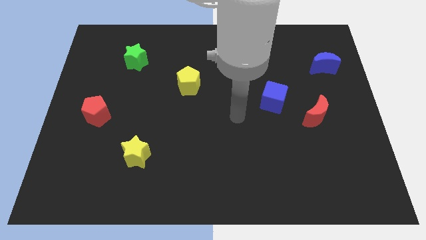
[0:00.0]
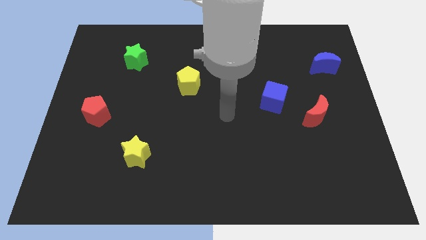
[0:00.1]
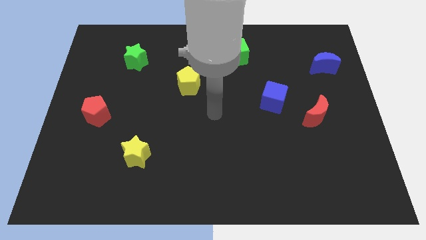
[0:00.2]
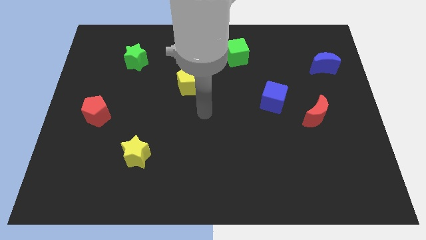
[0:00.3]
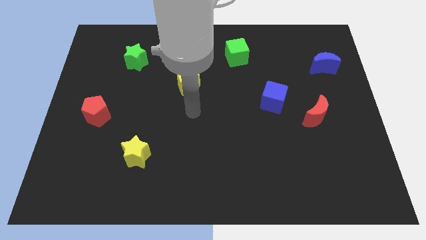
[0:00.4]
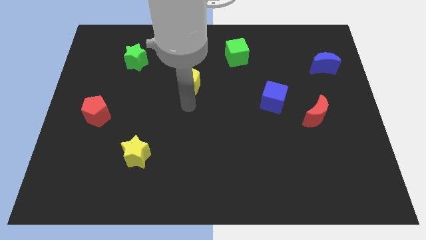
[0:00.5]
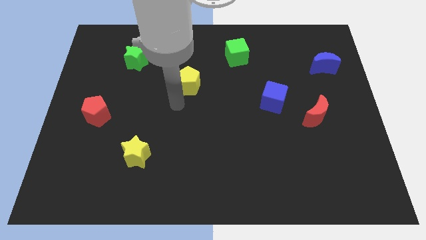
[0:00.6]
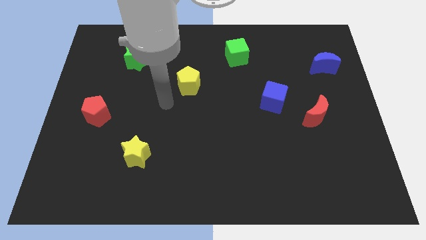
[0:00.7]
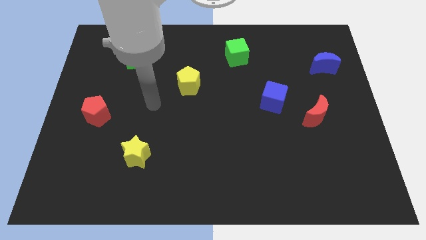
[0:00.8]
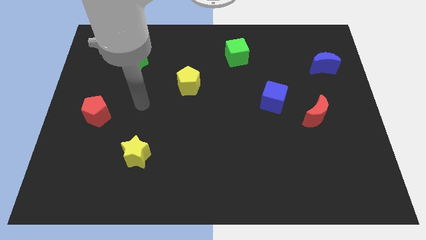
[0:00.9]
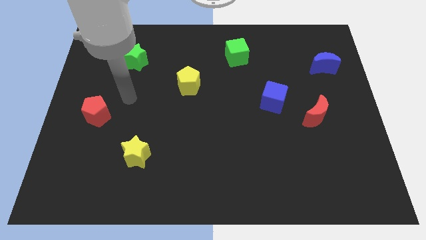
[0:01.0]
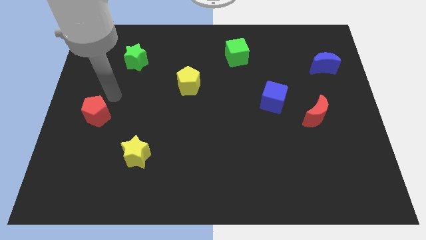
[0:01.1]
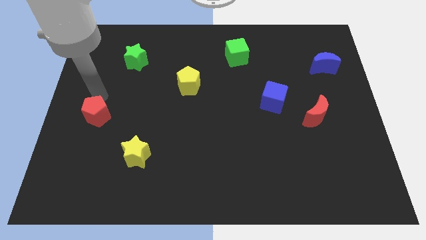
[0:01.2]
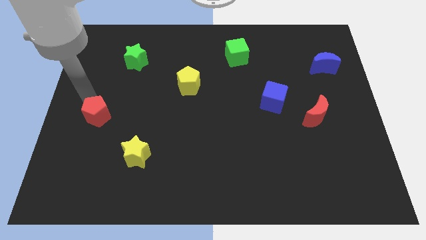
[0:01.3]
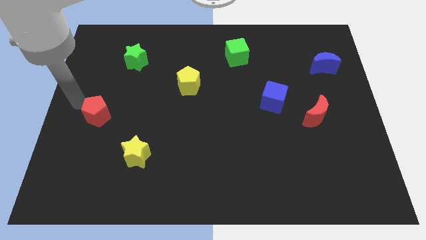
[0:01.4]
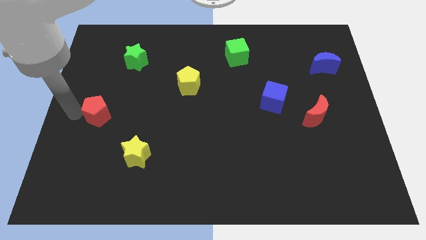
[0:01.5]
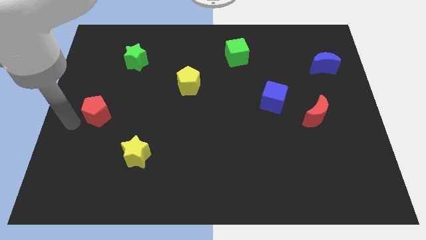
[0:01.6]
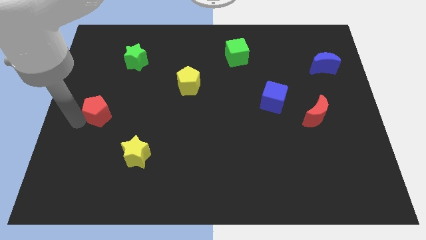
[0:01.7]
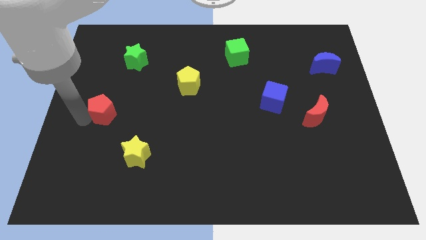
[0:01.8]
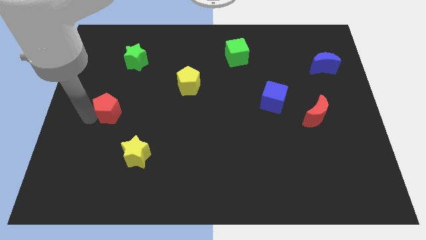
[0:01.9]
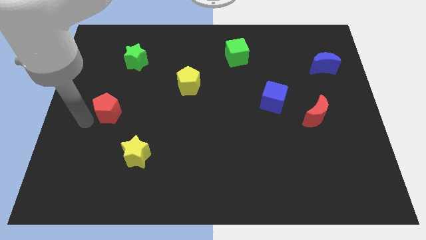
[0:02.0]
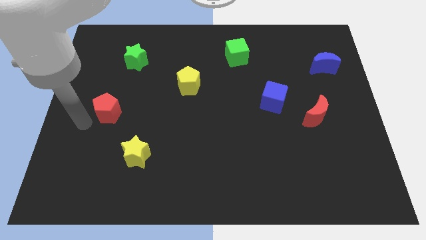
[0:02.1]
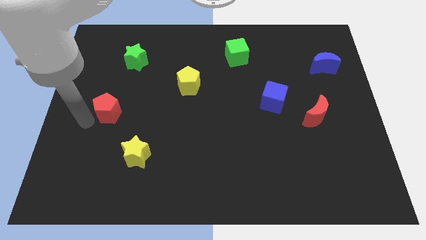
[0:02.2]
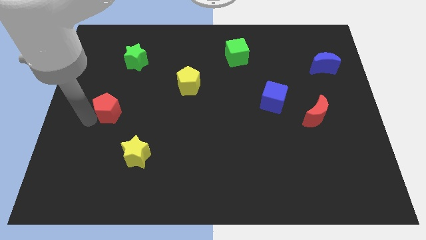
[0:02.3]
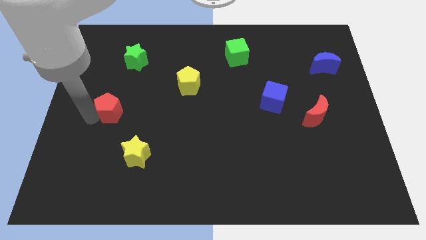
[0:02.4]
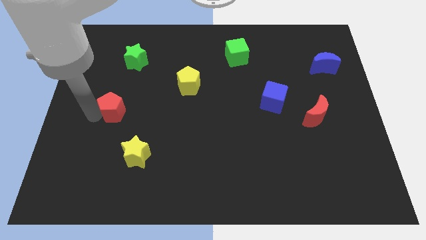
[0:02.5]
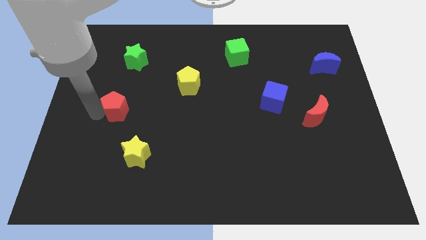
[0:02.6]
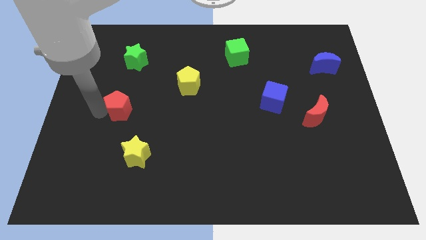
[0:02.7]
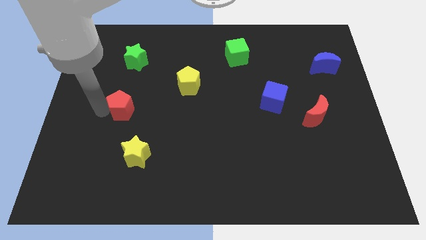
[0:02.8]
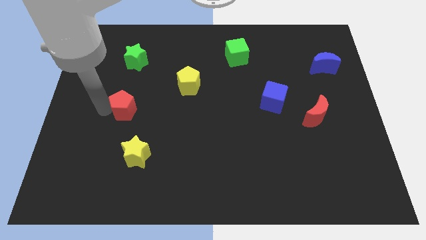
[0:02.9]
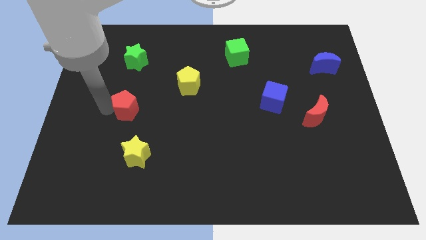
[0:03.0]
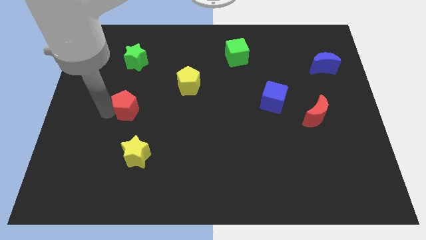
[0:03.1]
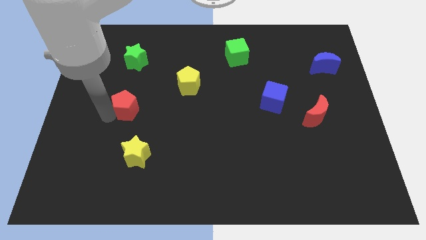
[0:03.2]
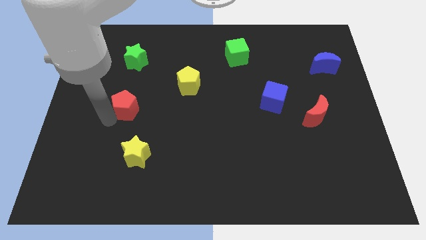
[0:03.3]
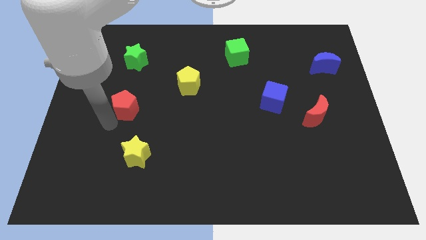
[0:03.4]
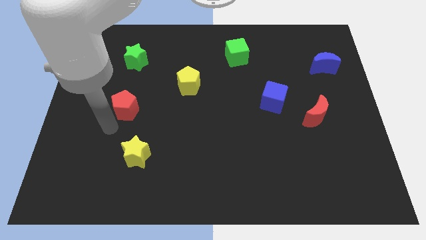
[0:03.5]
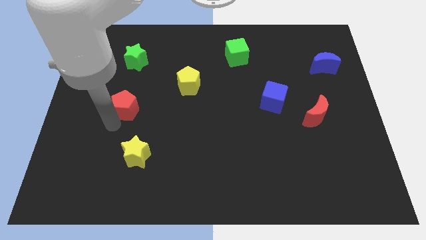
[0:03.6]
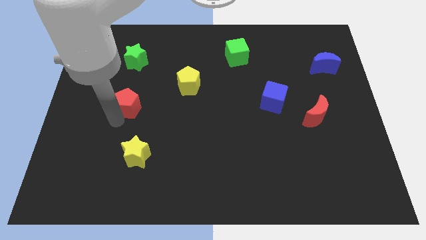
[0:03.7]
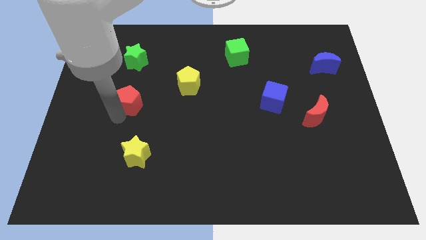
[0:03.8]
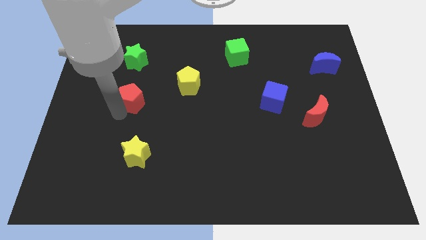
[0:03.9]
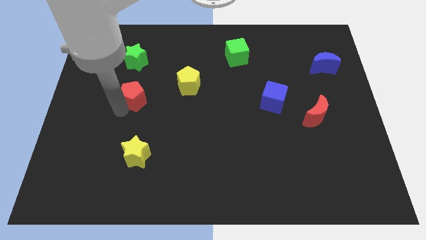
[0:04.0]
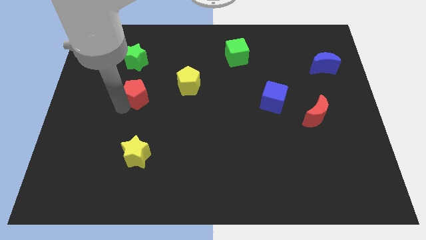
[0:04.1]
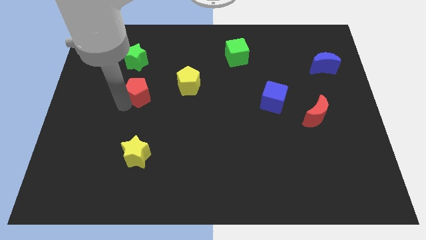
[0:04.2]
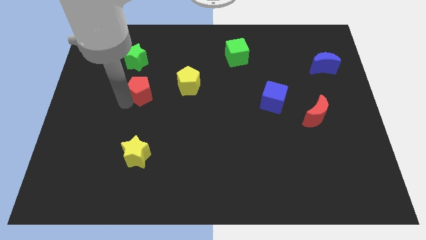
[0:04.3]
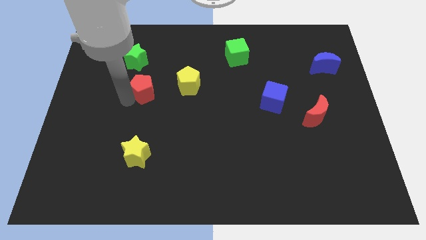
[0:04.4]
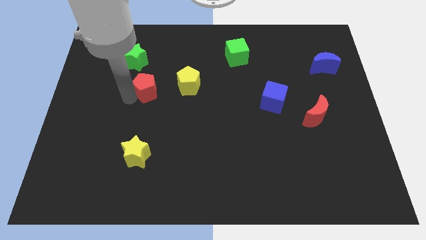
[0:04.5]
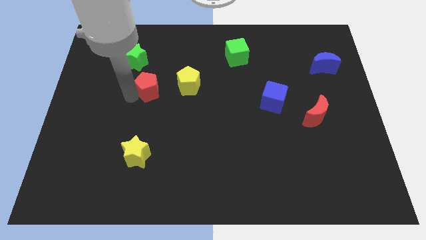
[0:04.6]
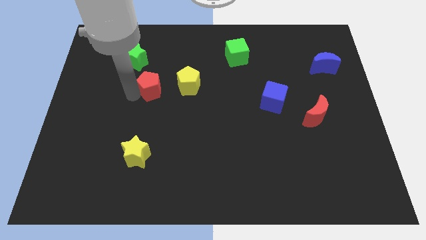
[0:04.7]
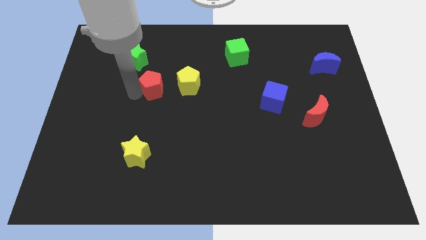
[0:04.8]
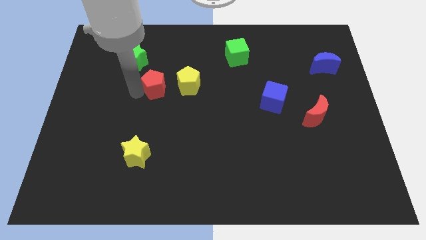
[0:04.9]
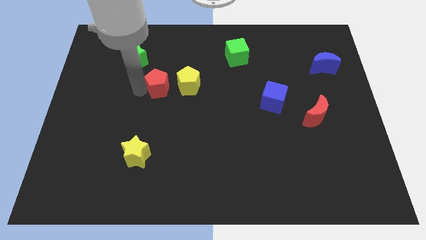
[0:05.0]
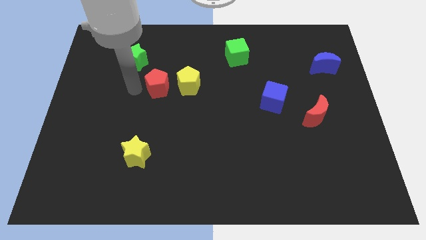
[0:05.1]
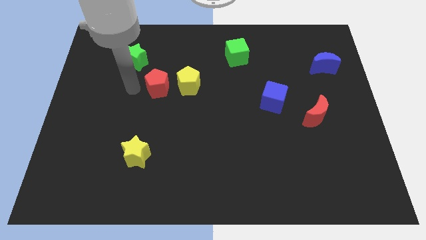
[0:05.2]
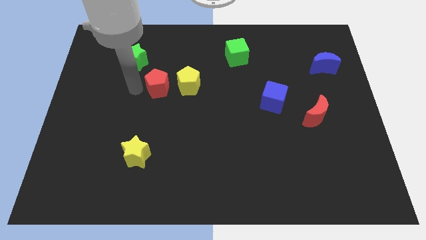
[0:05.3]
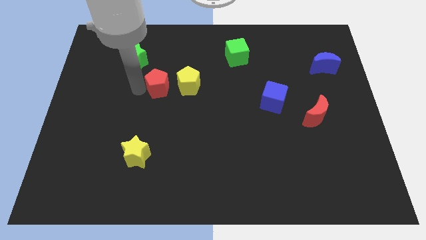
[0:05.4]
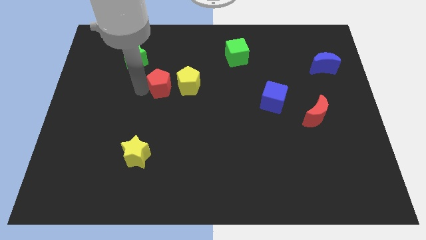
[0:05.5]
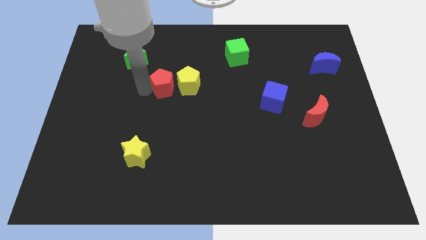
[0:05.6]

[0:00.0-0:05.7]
slide the red pentagon close to the yellow pentagon

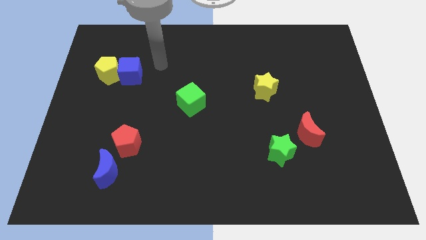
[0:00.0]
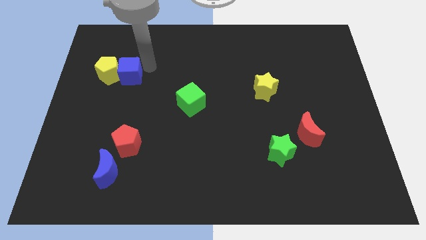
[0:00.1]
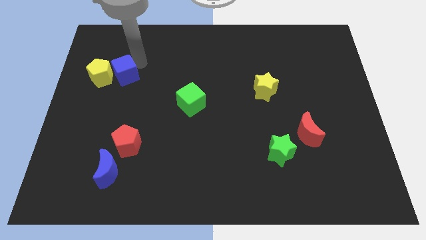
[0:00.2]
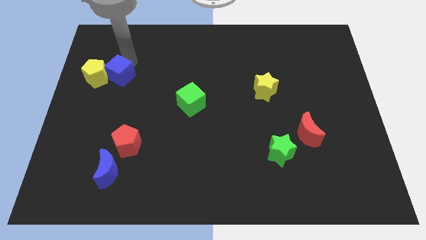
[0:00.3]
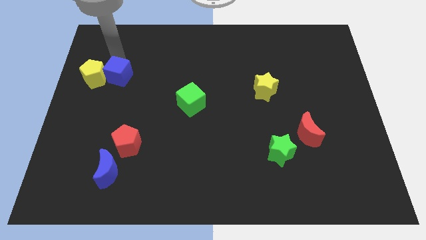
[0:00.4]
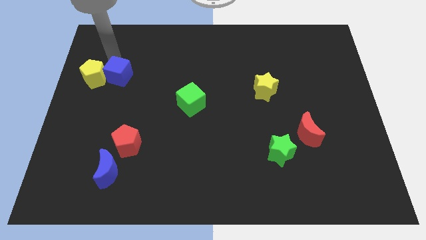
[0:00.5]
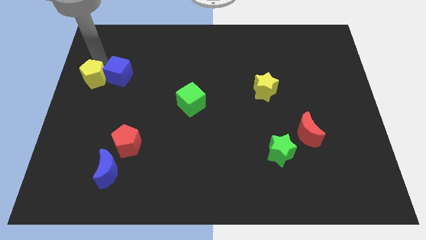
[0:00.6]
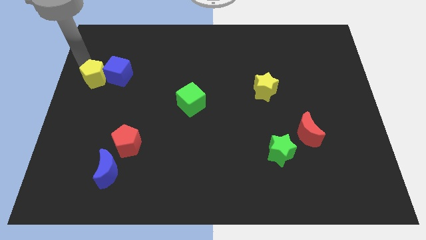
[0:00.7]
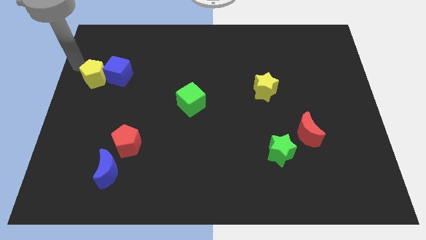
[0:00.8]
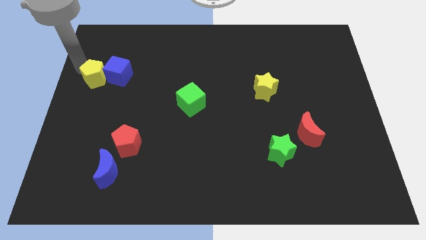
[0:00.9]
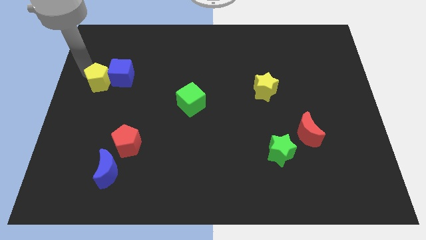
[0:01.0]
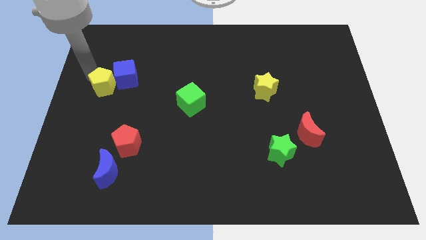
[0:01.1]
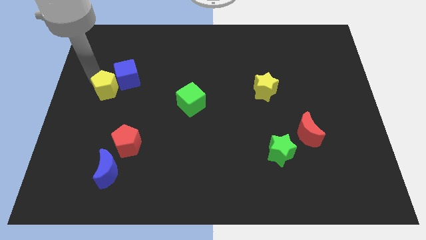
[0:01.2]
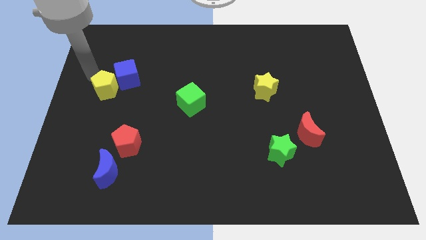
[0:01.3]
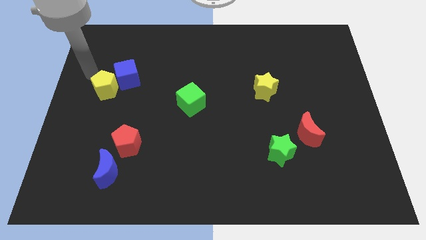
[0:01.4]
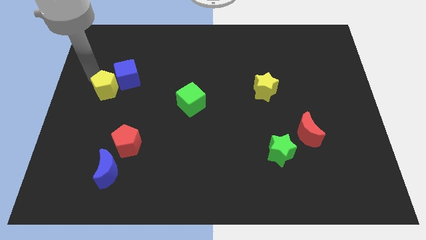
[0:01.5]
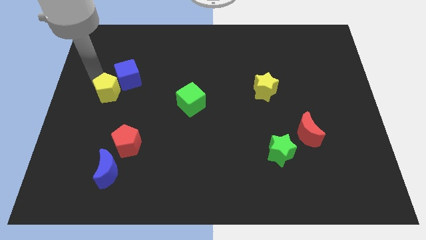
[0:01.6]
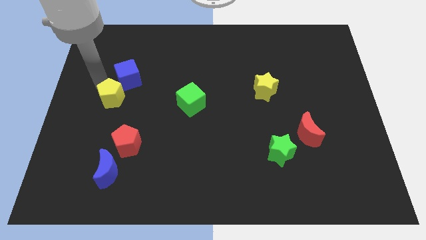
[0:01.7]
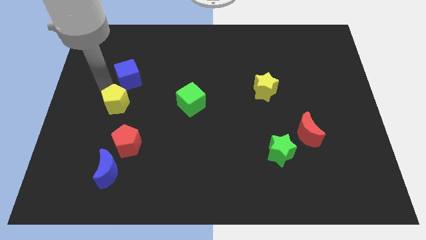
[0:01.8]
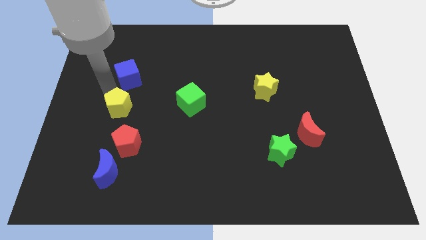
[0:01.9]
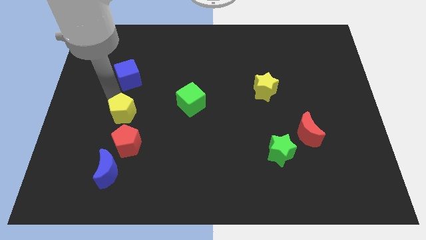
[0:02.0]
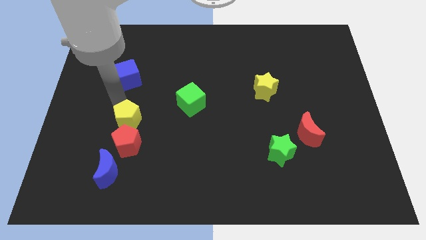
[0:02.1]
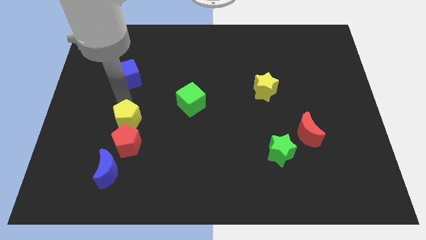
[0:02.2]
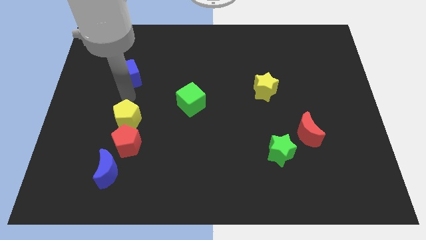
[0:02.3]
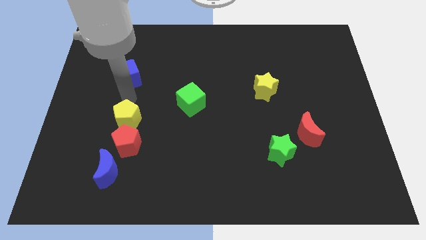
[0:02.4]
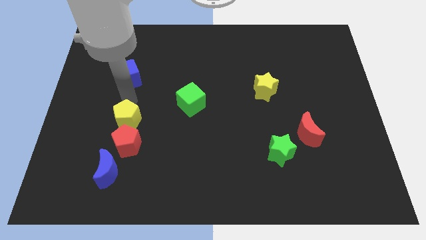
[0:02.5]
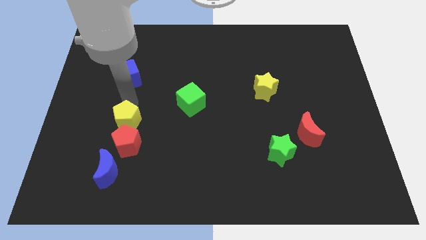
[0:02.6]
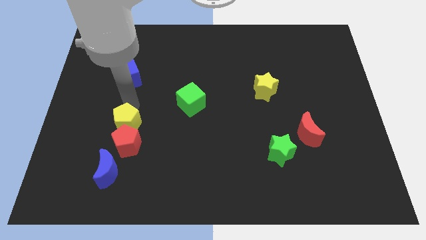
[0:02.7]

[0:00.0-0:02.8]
push the yellow pentagon close to the red pentagon
